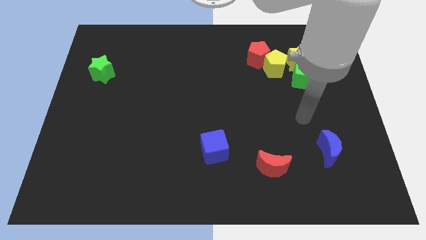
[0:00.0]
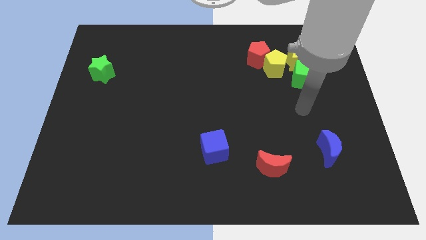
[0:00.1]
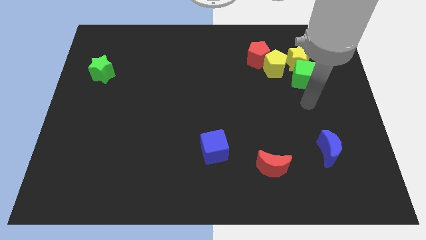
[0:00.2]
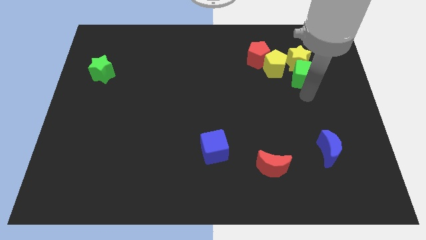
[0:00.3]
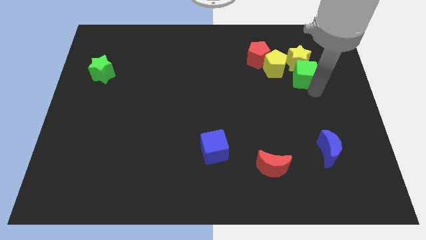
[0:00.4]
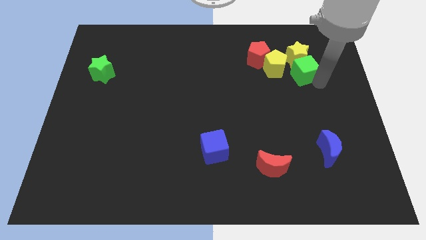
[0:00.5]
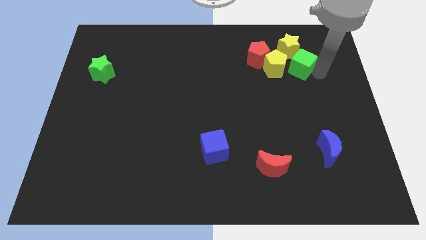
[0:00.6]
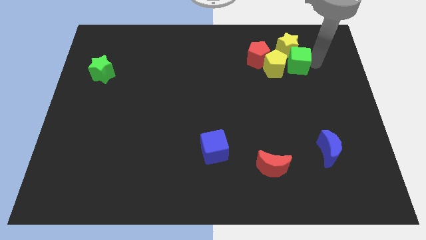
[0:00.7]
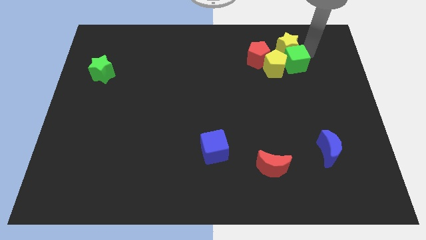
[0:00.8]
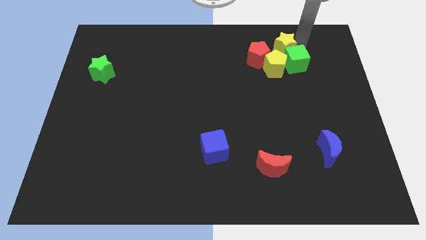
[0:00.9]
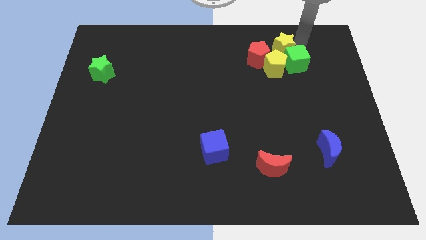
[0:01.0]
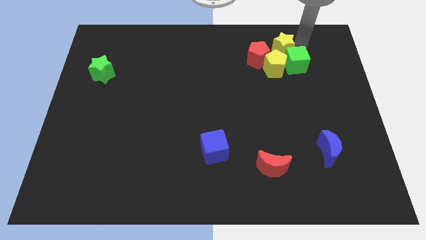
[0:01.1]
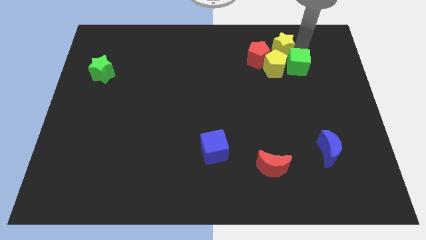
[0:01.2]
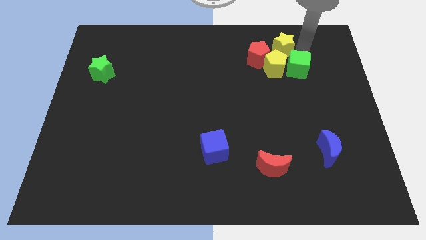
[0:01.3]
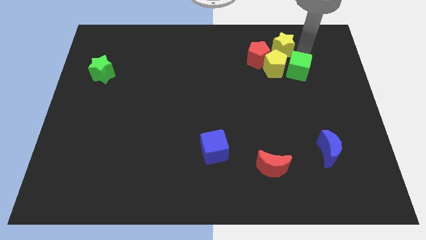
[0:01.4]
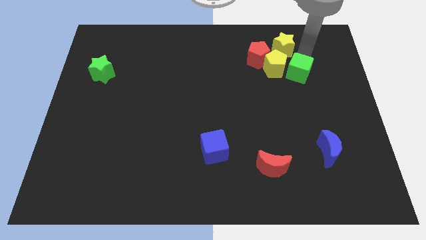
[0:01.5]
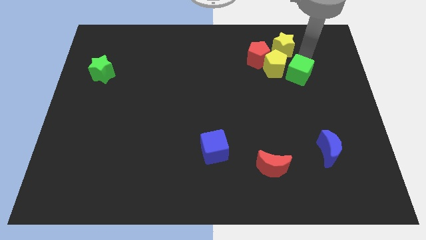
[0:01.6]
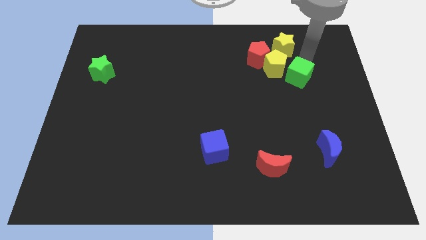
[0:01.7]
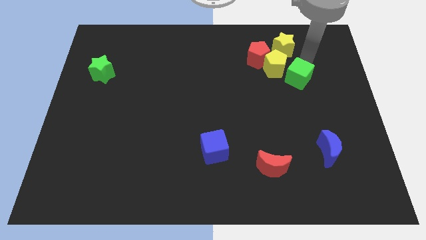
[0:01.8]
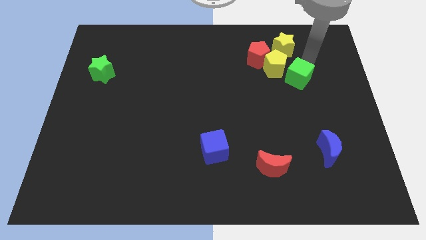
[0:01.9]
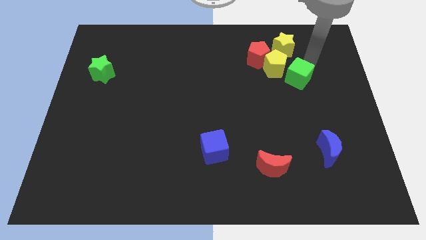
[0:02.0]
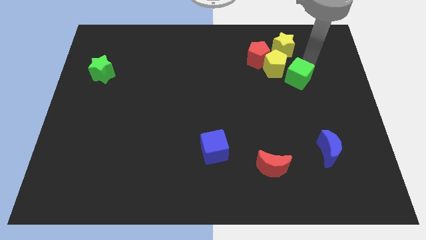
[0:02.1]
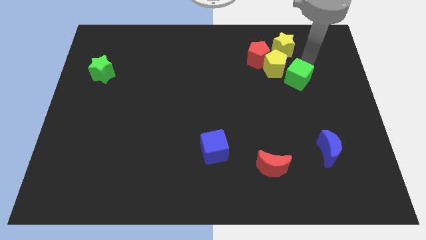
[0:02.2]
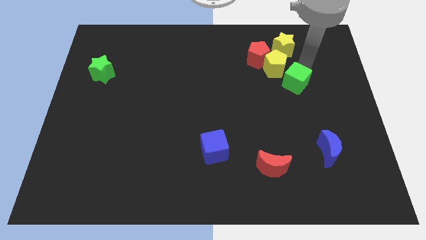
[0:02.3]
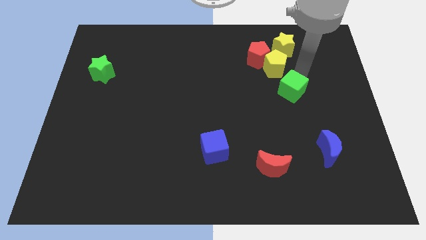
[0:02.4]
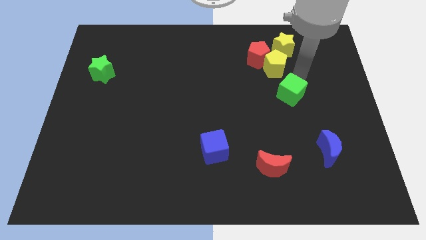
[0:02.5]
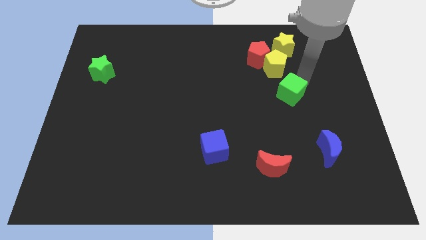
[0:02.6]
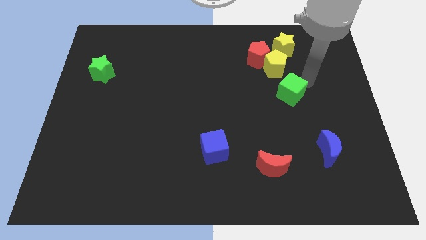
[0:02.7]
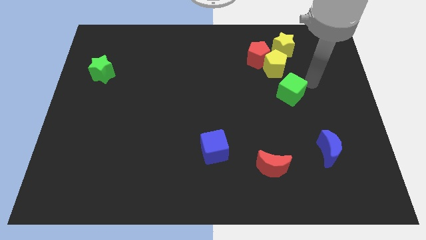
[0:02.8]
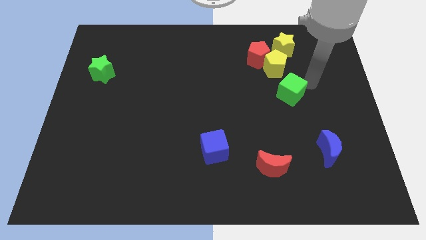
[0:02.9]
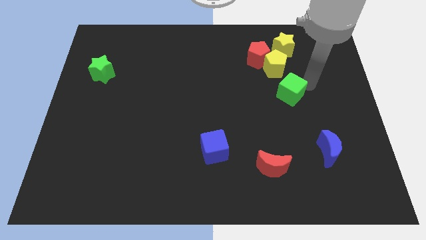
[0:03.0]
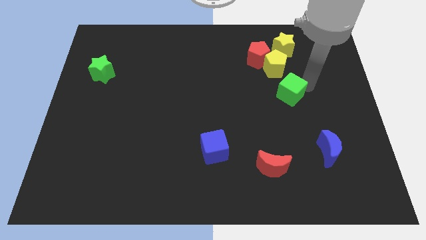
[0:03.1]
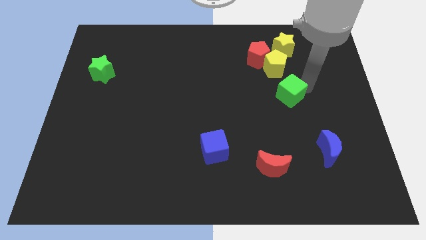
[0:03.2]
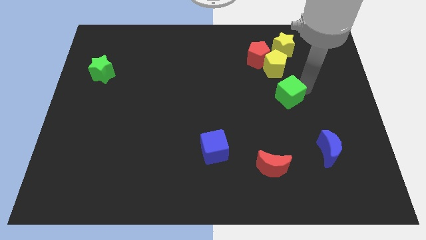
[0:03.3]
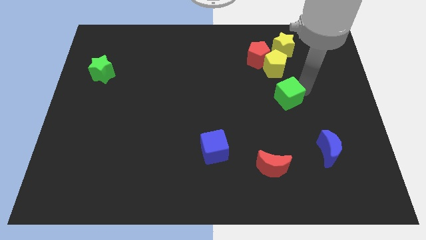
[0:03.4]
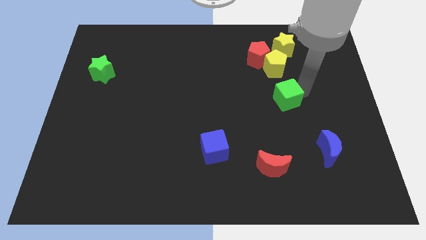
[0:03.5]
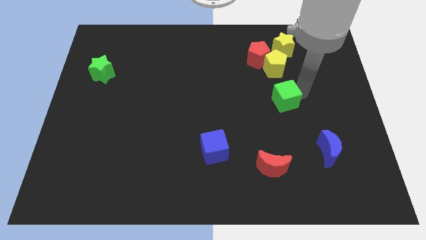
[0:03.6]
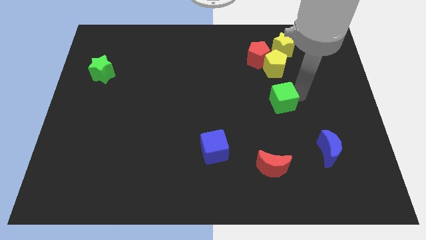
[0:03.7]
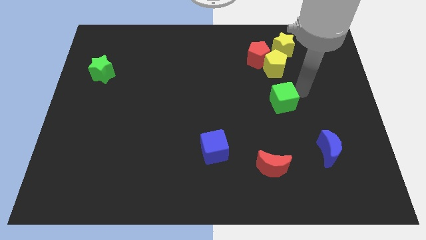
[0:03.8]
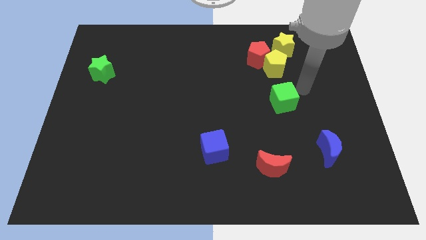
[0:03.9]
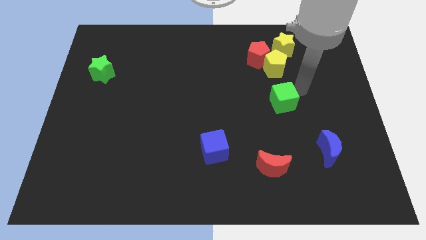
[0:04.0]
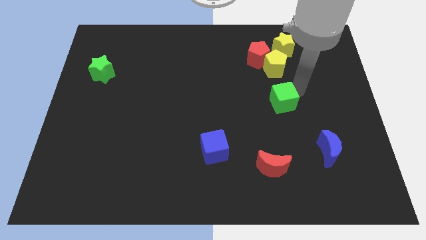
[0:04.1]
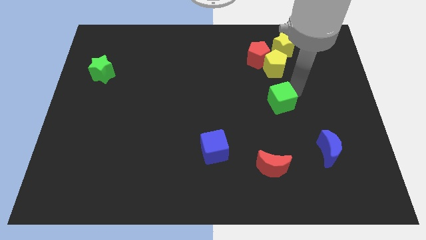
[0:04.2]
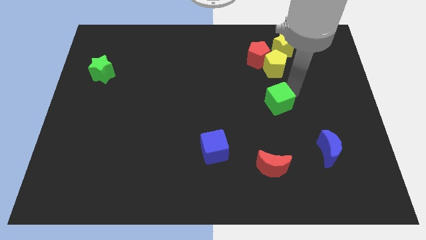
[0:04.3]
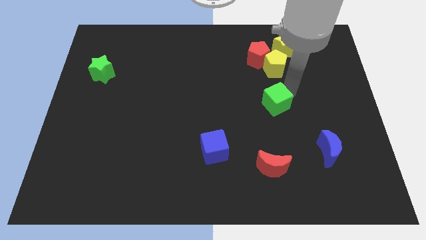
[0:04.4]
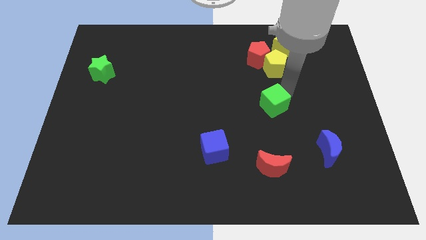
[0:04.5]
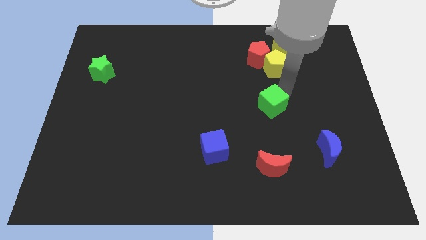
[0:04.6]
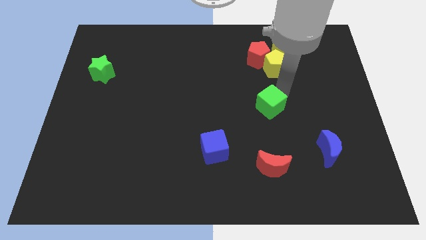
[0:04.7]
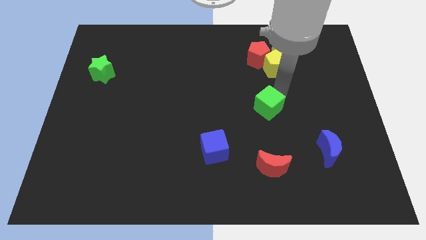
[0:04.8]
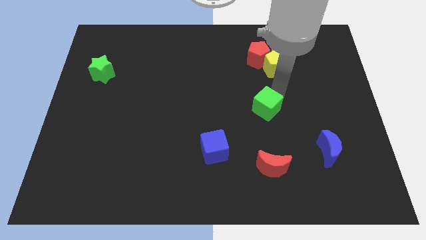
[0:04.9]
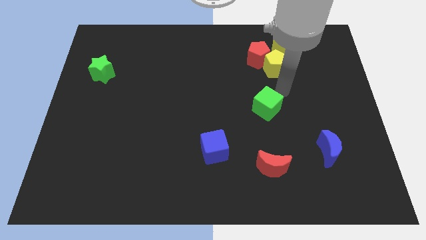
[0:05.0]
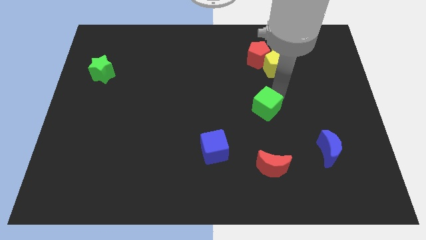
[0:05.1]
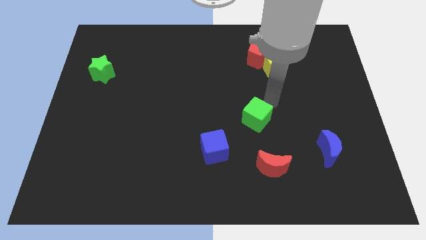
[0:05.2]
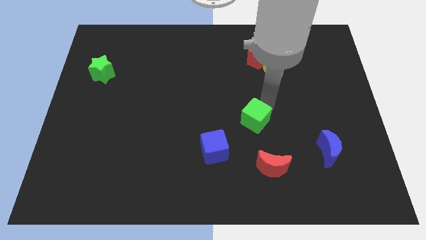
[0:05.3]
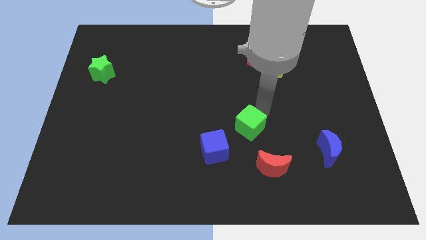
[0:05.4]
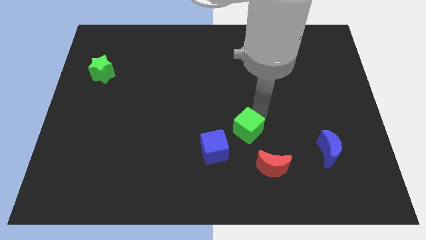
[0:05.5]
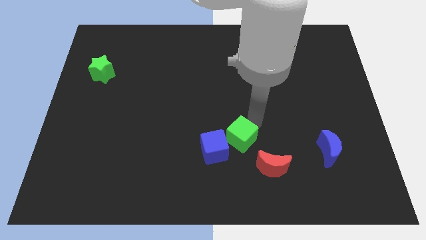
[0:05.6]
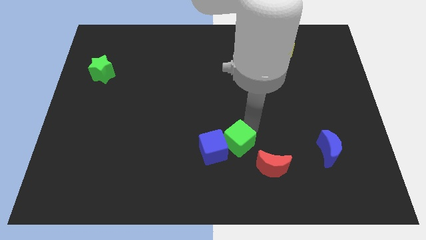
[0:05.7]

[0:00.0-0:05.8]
push the green cube towards the blue cube

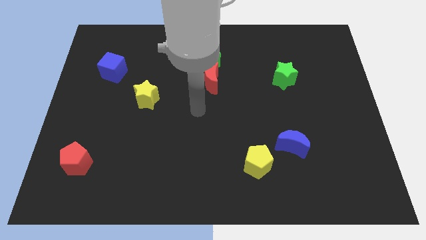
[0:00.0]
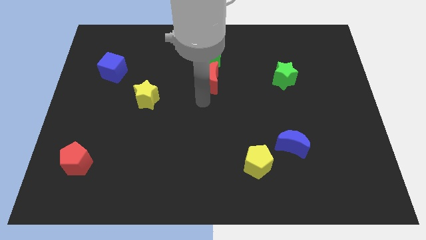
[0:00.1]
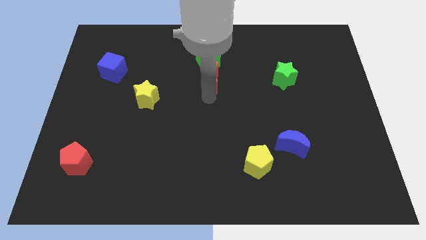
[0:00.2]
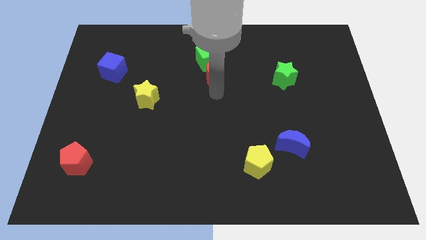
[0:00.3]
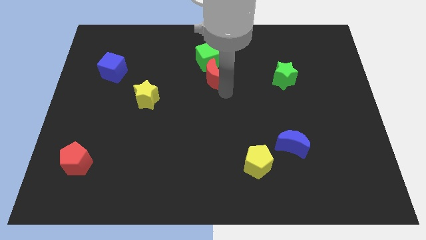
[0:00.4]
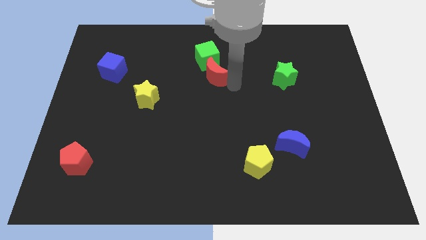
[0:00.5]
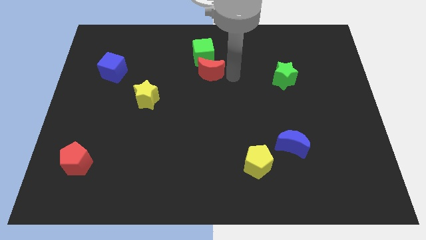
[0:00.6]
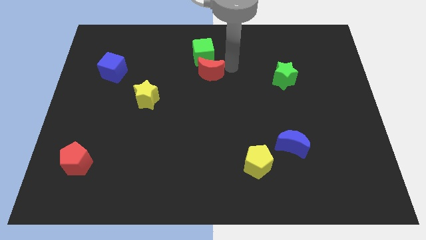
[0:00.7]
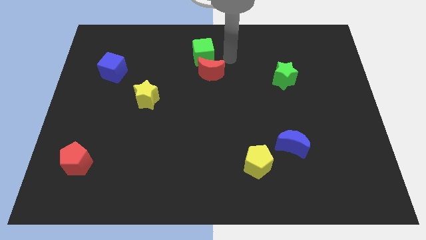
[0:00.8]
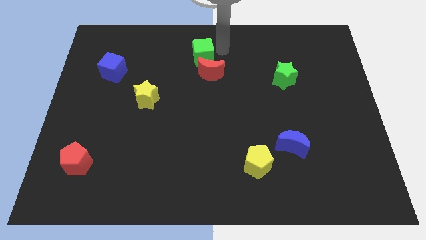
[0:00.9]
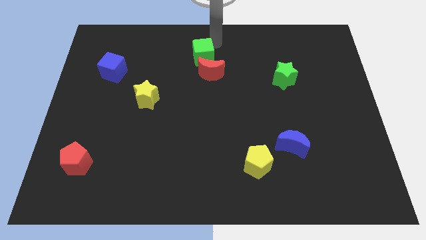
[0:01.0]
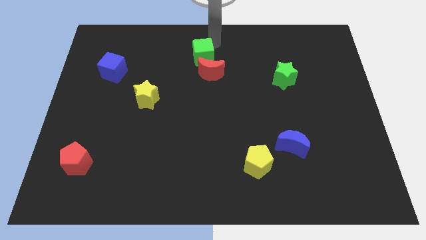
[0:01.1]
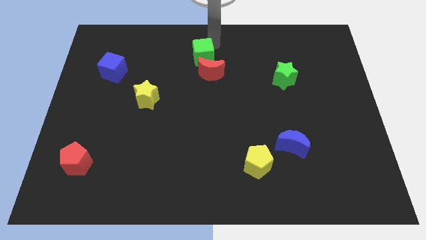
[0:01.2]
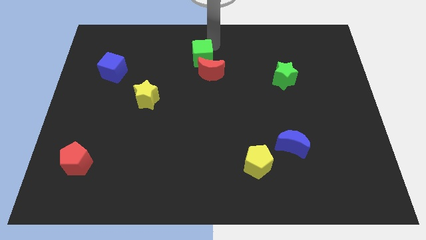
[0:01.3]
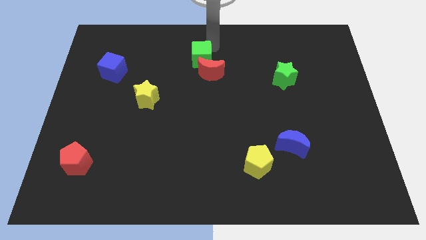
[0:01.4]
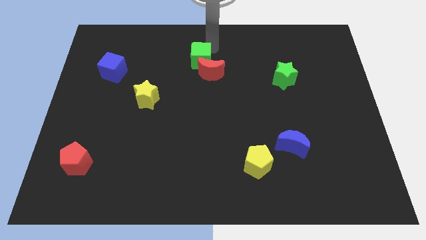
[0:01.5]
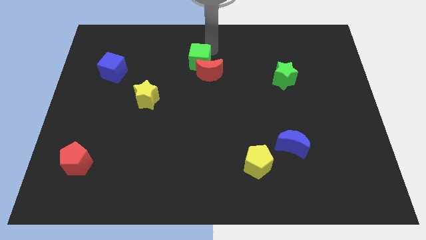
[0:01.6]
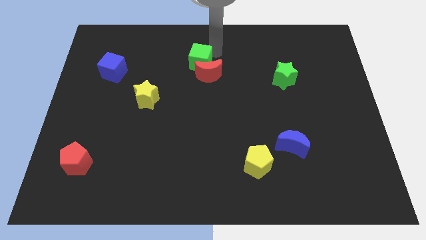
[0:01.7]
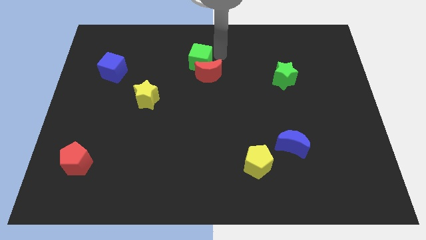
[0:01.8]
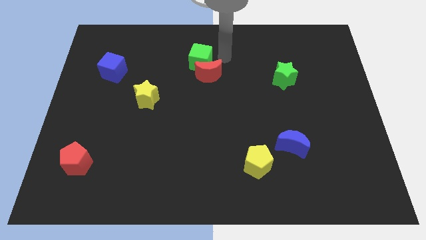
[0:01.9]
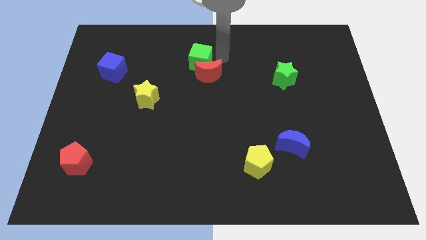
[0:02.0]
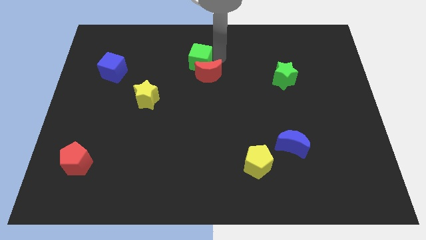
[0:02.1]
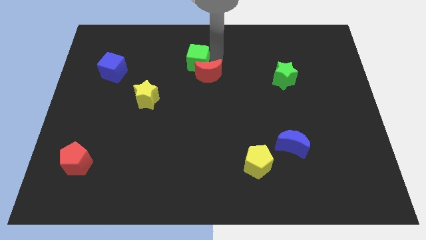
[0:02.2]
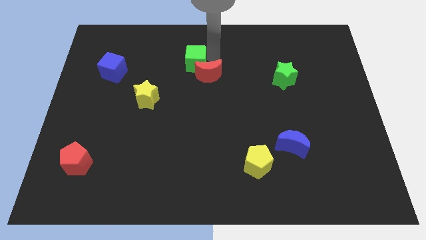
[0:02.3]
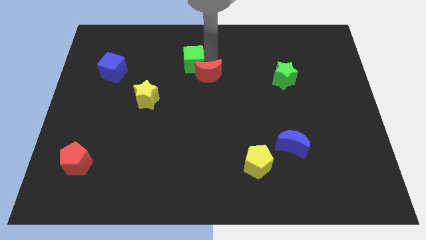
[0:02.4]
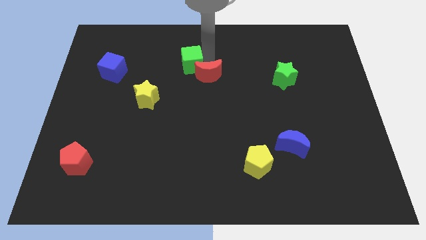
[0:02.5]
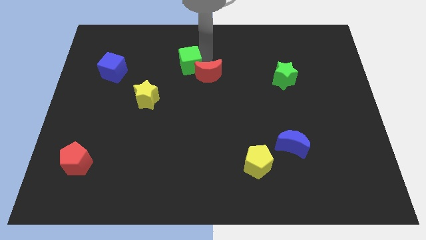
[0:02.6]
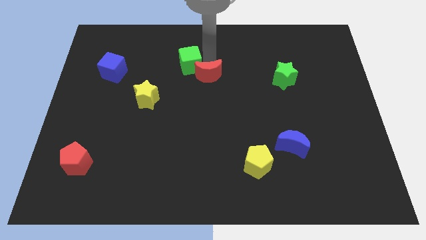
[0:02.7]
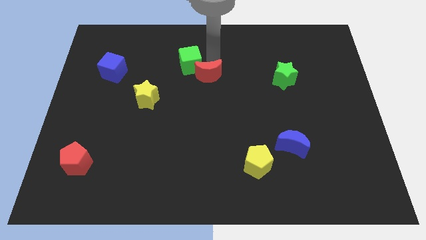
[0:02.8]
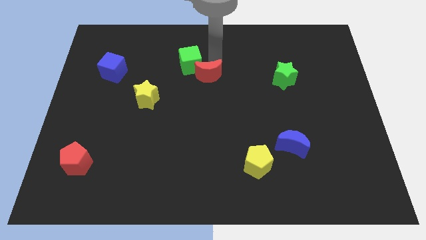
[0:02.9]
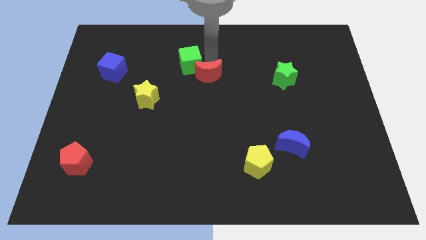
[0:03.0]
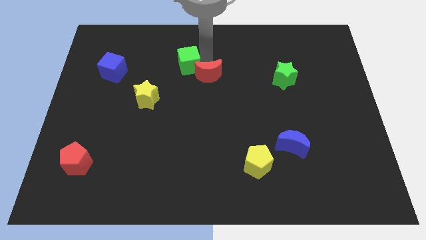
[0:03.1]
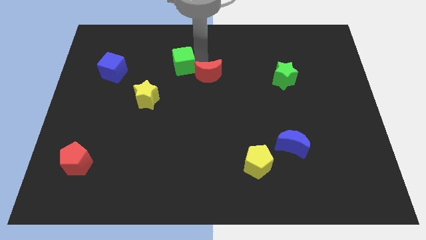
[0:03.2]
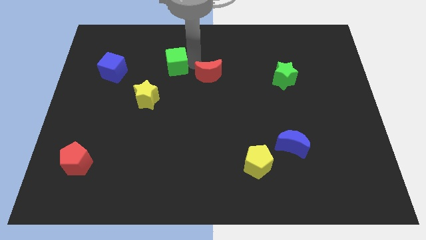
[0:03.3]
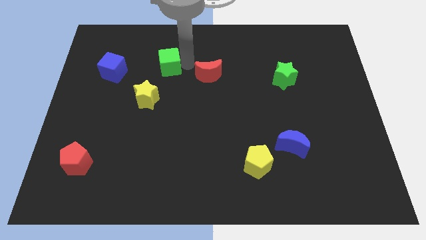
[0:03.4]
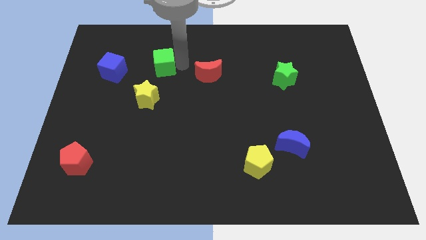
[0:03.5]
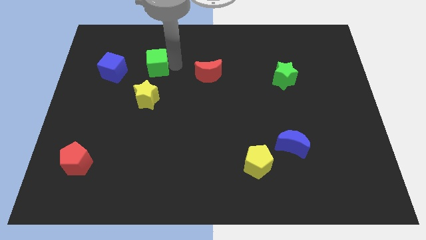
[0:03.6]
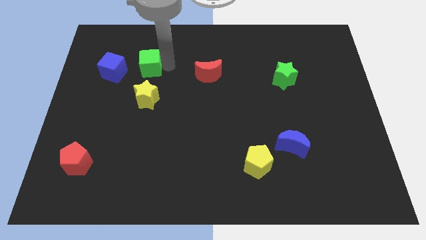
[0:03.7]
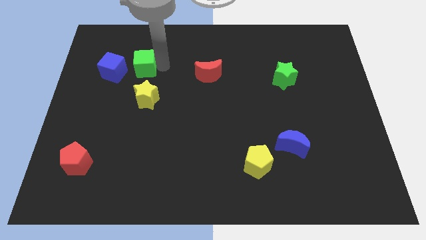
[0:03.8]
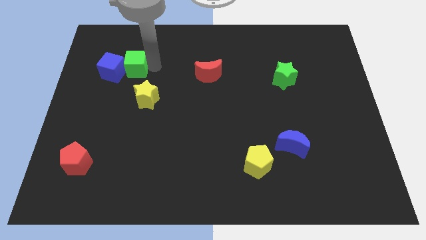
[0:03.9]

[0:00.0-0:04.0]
move the green cube towards the blue cube
